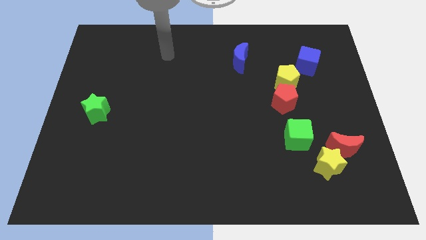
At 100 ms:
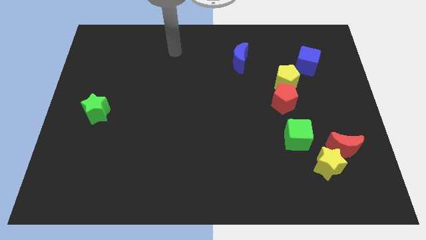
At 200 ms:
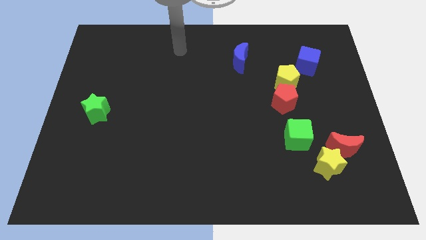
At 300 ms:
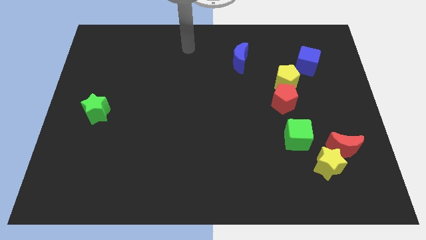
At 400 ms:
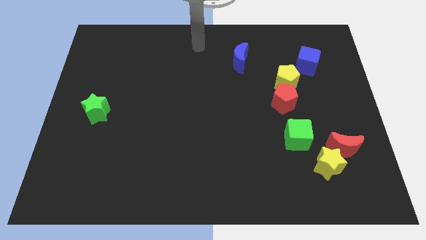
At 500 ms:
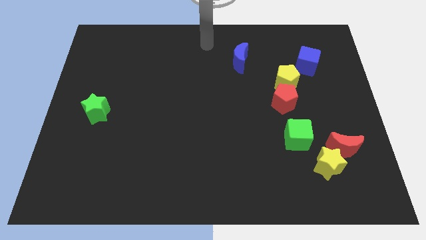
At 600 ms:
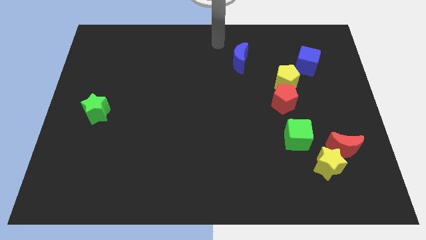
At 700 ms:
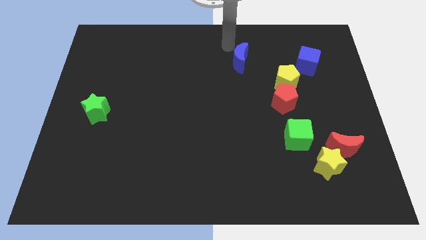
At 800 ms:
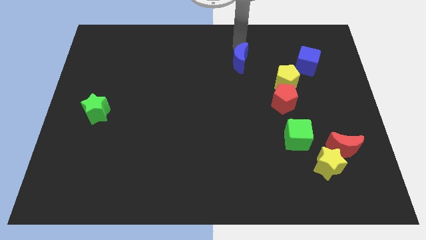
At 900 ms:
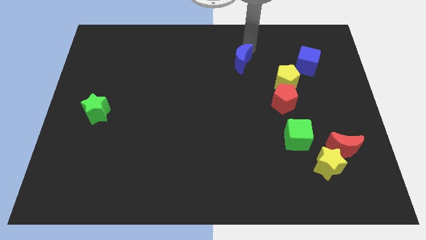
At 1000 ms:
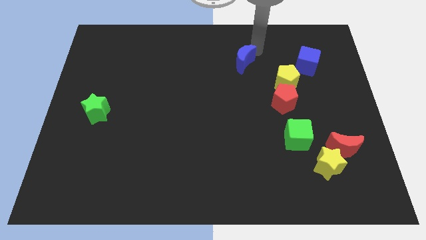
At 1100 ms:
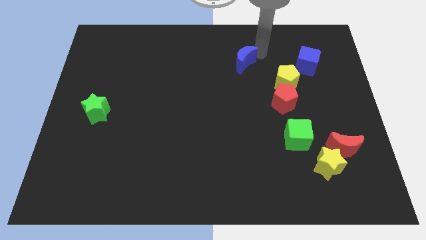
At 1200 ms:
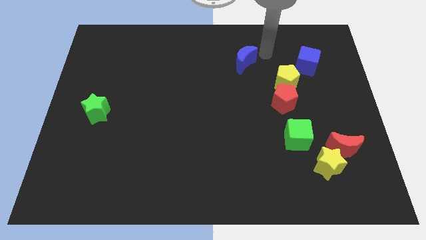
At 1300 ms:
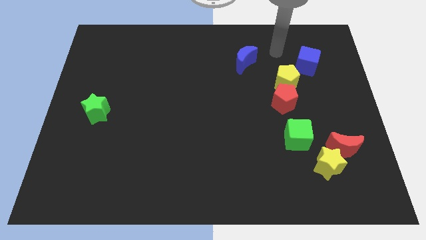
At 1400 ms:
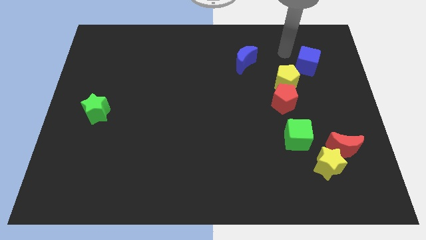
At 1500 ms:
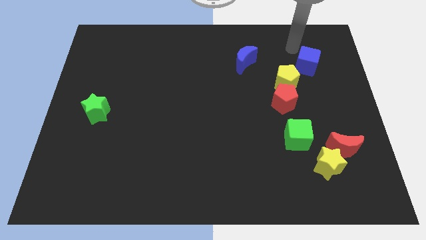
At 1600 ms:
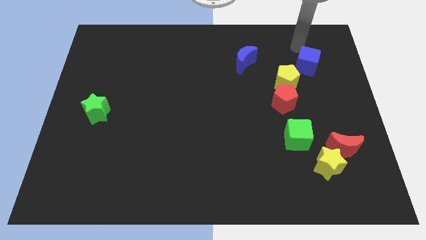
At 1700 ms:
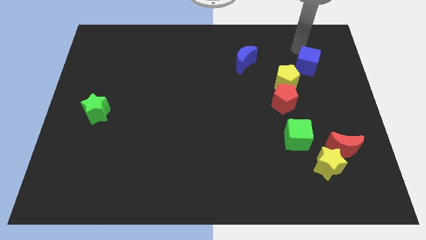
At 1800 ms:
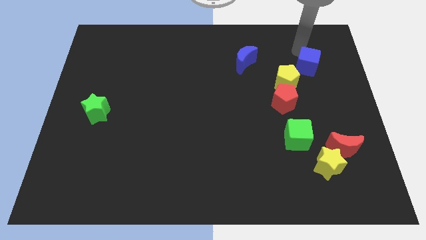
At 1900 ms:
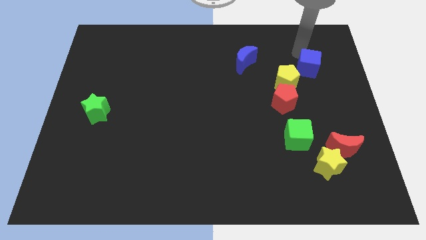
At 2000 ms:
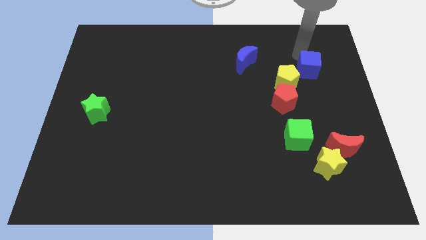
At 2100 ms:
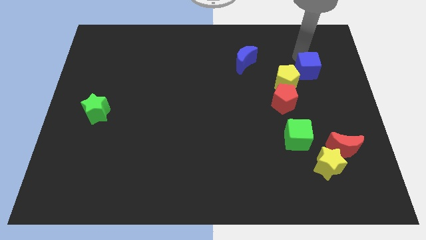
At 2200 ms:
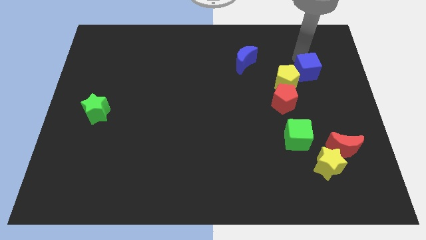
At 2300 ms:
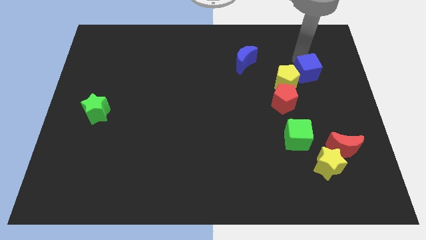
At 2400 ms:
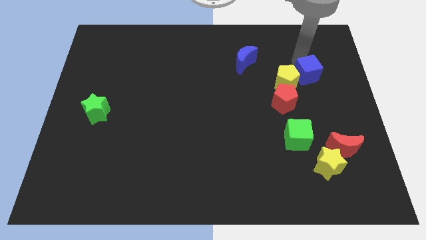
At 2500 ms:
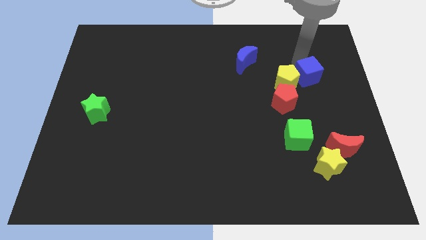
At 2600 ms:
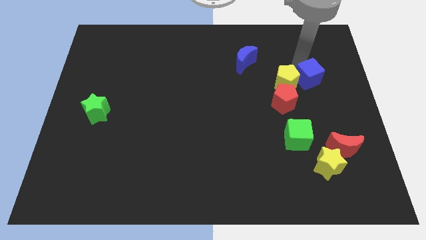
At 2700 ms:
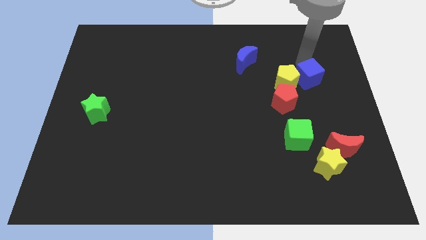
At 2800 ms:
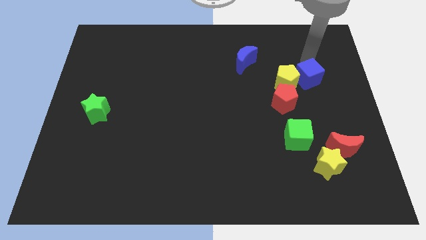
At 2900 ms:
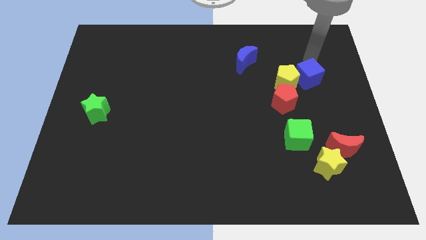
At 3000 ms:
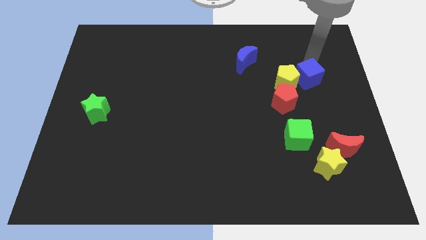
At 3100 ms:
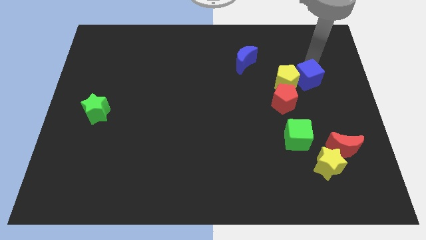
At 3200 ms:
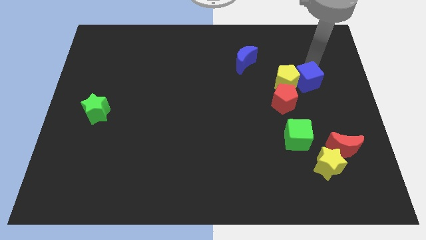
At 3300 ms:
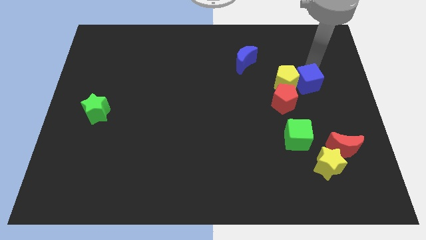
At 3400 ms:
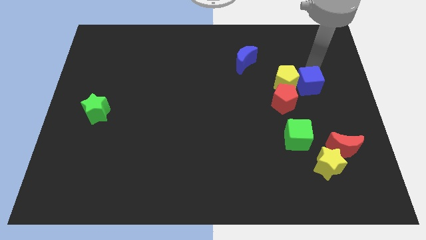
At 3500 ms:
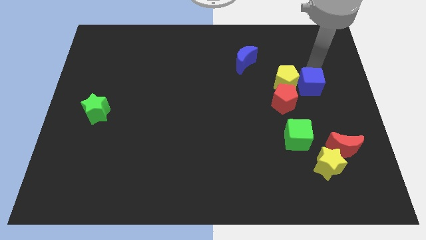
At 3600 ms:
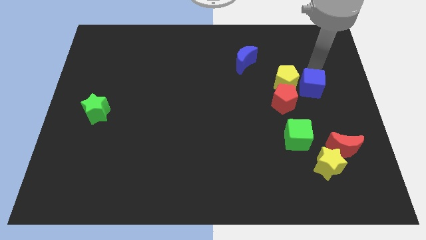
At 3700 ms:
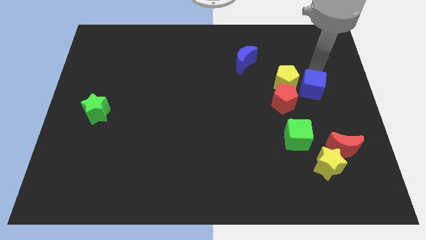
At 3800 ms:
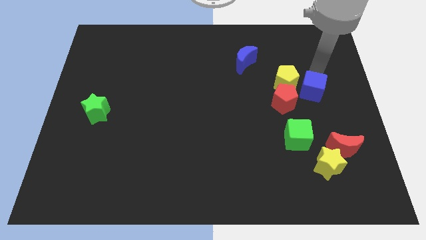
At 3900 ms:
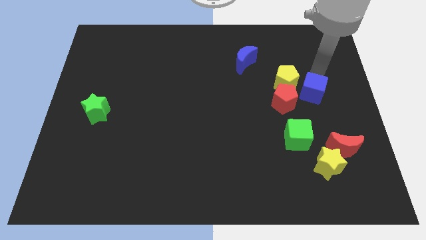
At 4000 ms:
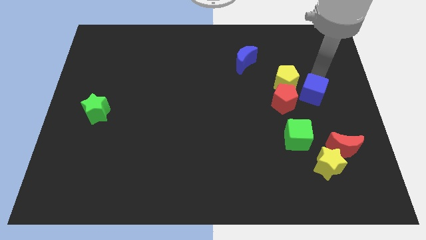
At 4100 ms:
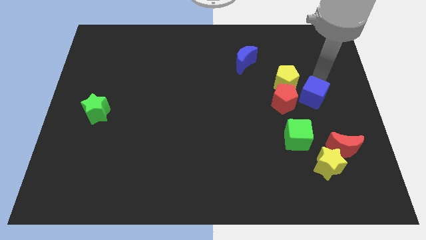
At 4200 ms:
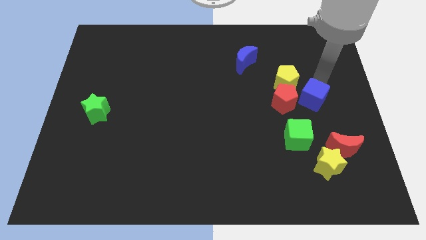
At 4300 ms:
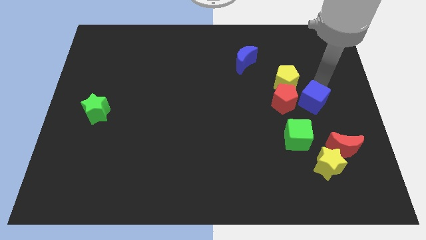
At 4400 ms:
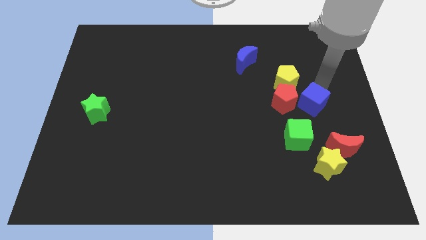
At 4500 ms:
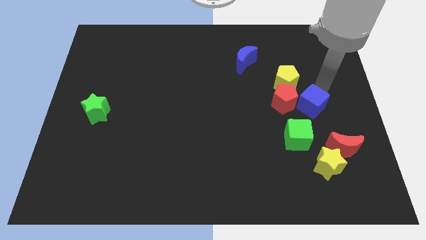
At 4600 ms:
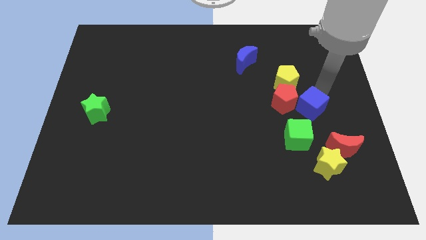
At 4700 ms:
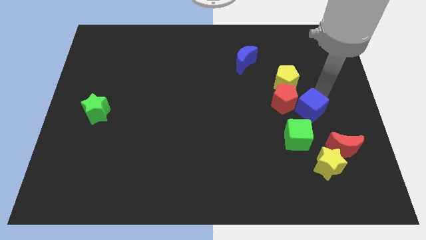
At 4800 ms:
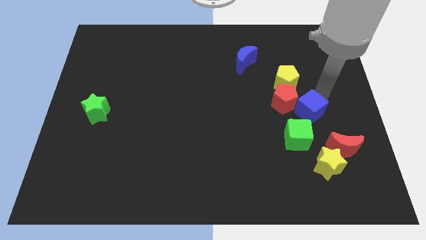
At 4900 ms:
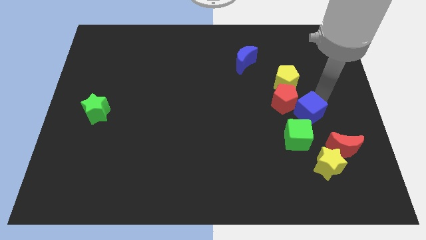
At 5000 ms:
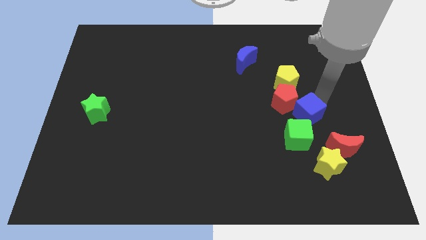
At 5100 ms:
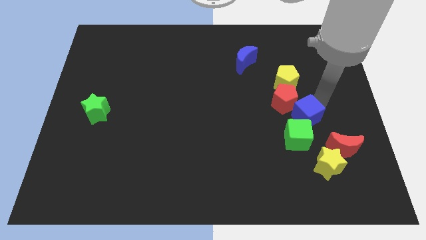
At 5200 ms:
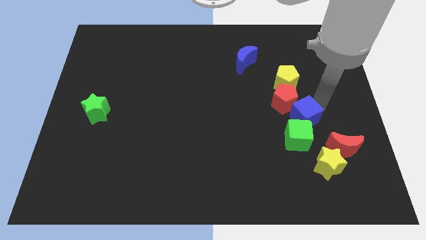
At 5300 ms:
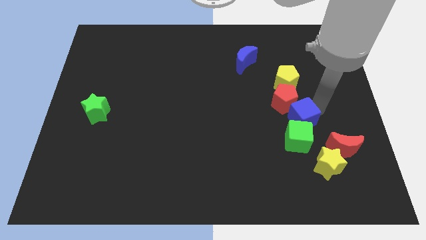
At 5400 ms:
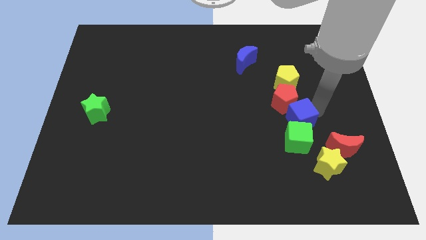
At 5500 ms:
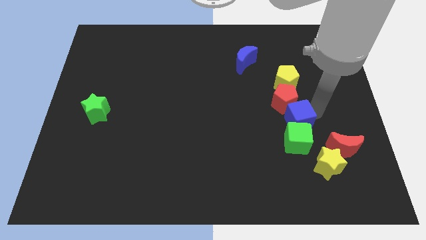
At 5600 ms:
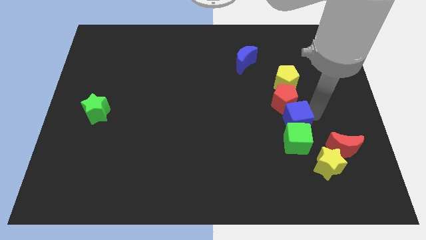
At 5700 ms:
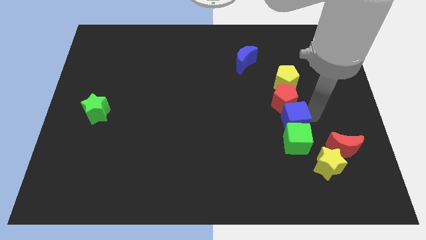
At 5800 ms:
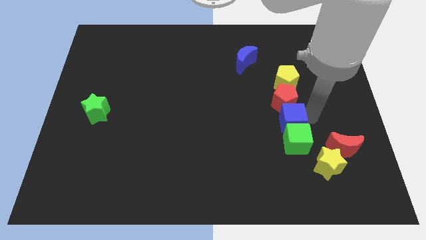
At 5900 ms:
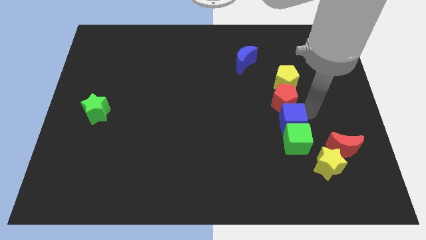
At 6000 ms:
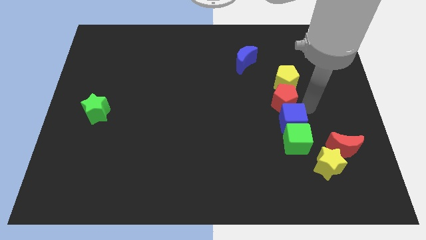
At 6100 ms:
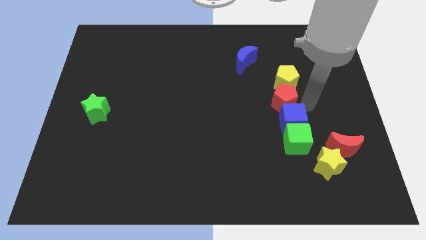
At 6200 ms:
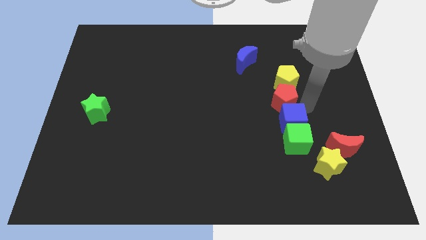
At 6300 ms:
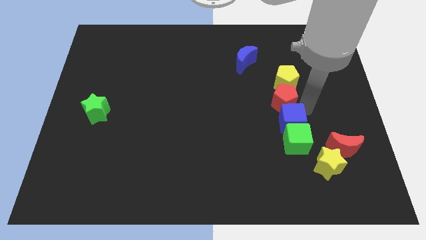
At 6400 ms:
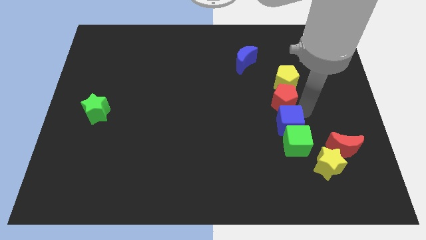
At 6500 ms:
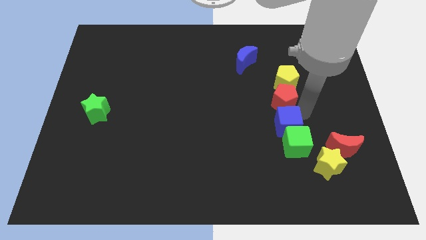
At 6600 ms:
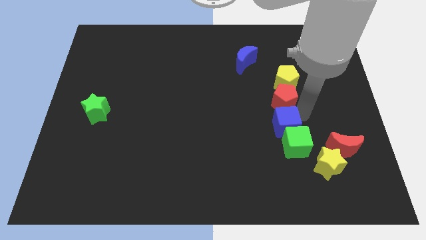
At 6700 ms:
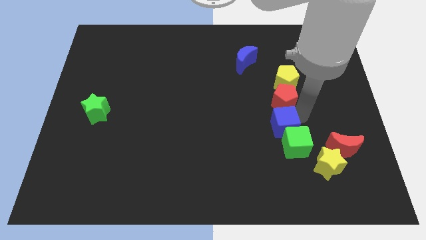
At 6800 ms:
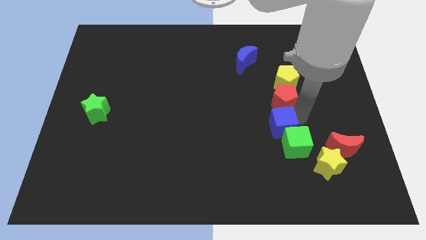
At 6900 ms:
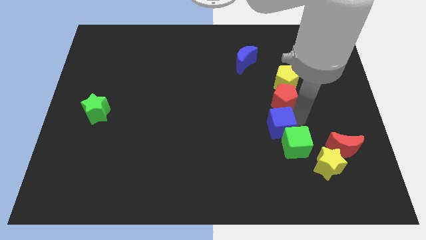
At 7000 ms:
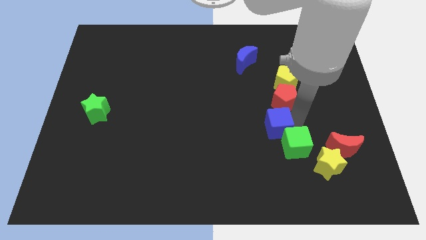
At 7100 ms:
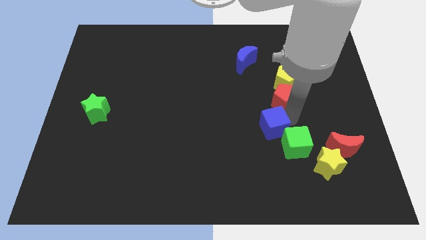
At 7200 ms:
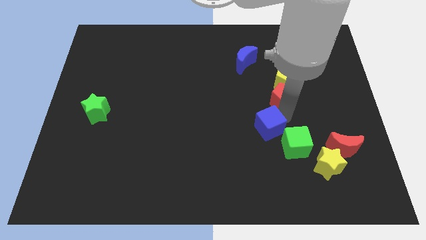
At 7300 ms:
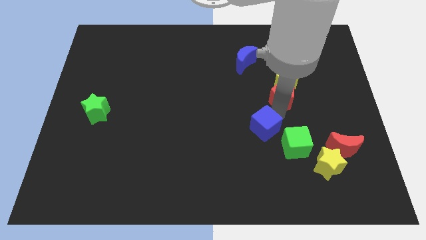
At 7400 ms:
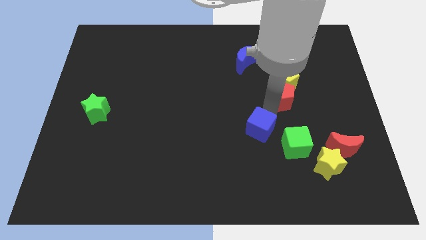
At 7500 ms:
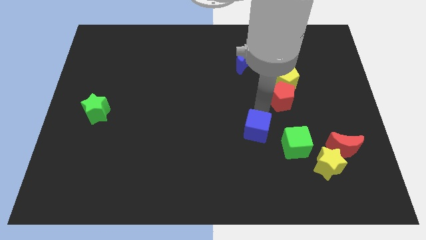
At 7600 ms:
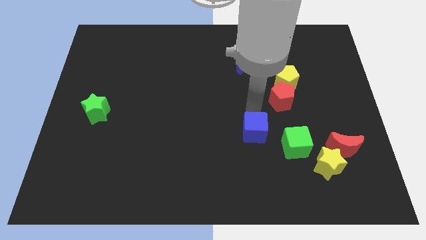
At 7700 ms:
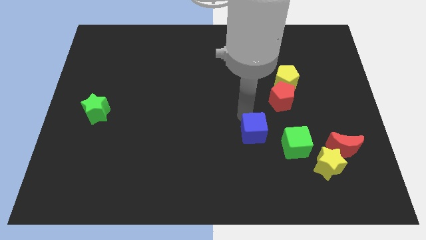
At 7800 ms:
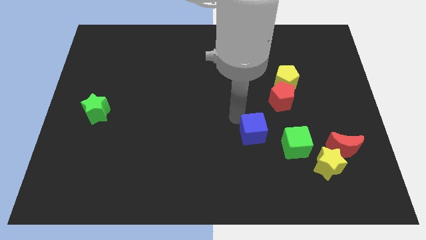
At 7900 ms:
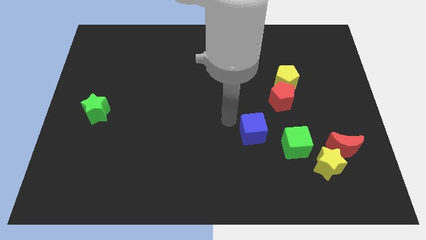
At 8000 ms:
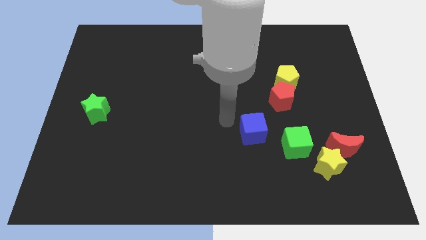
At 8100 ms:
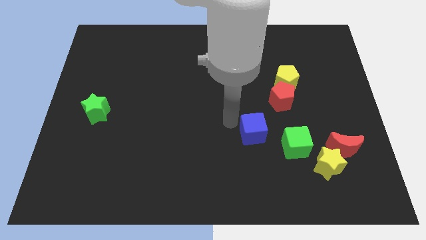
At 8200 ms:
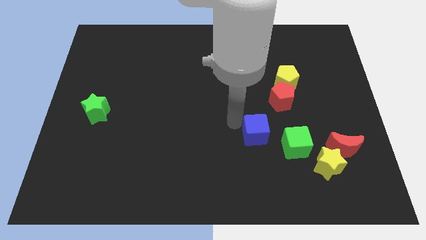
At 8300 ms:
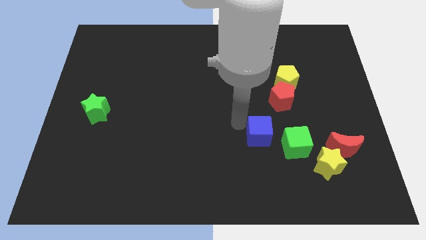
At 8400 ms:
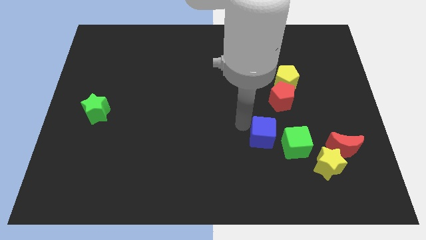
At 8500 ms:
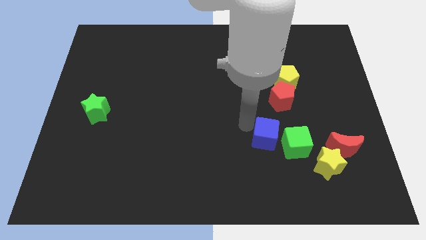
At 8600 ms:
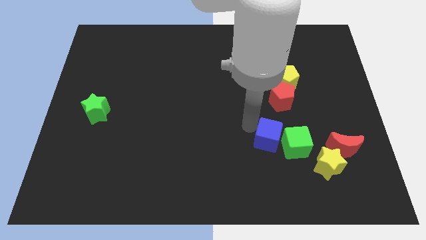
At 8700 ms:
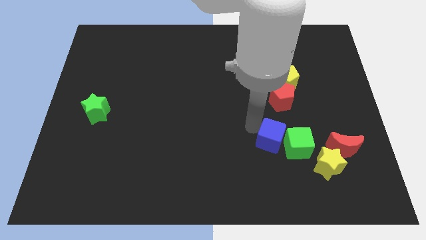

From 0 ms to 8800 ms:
slide the blue cube left of the red moon
